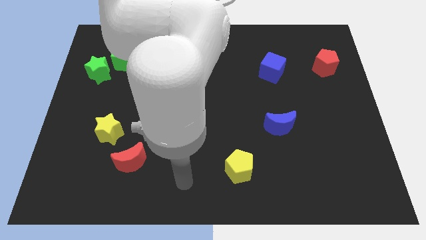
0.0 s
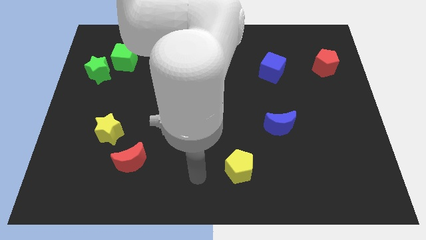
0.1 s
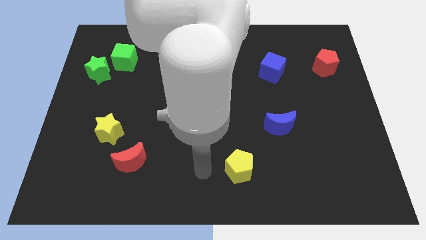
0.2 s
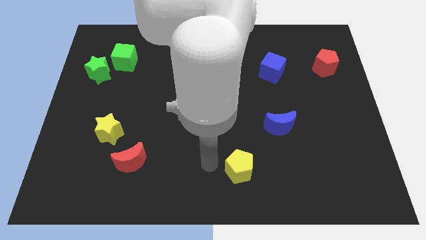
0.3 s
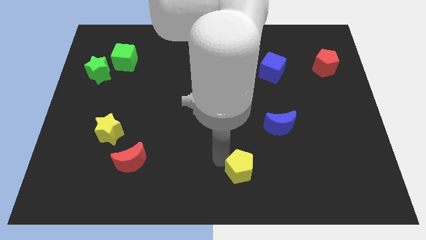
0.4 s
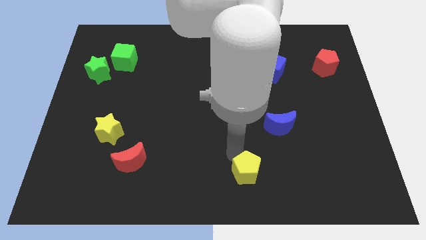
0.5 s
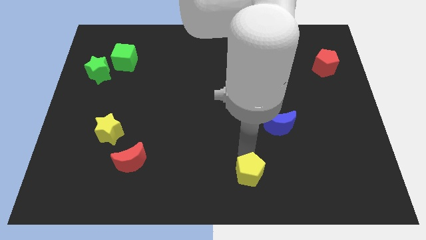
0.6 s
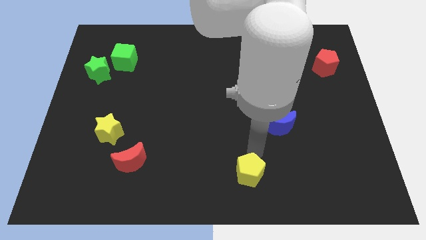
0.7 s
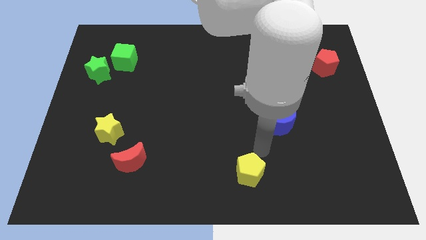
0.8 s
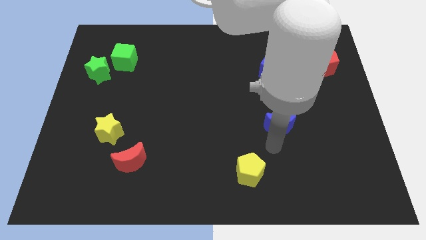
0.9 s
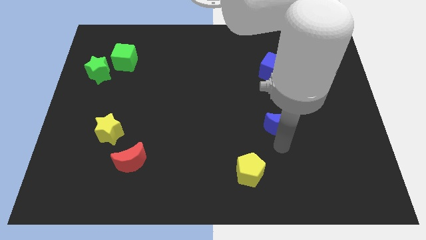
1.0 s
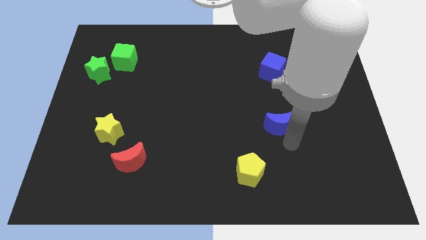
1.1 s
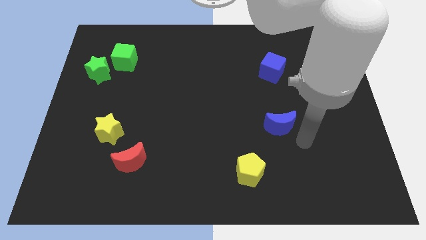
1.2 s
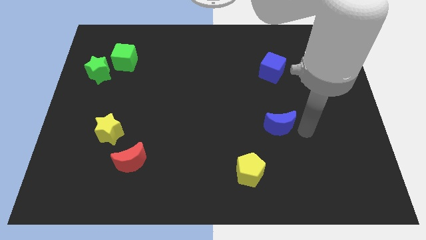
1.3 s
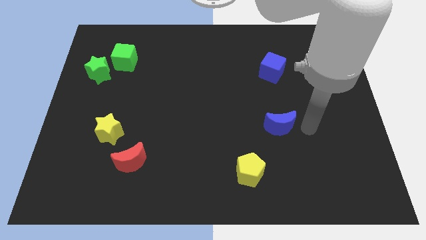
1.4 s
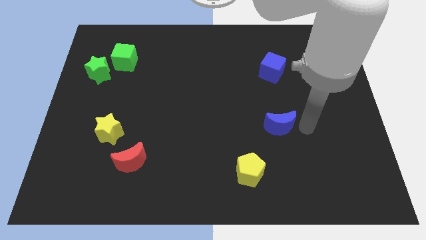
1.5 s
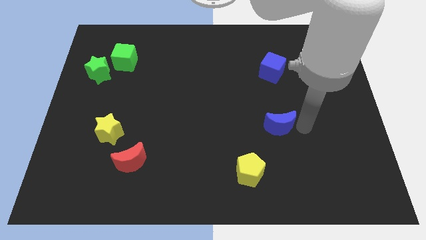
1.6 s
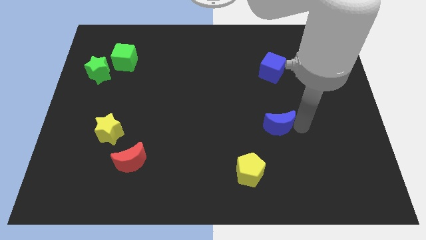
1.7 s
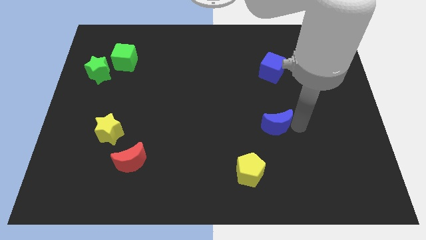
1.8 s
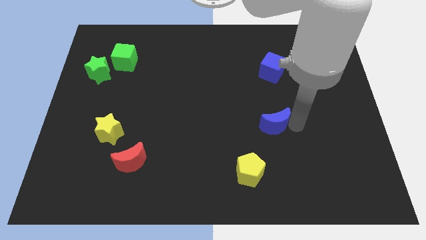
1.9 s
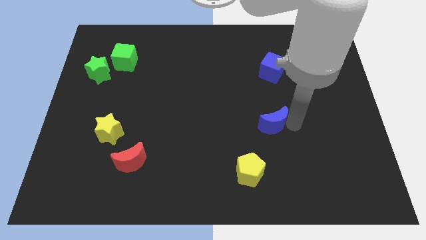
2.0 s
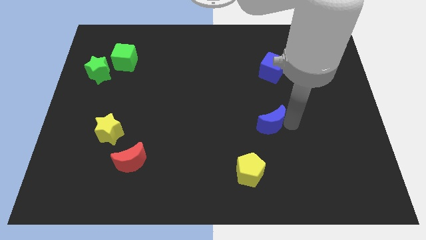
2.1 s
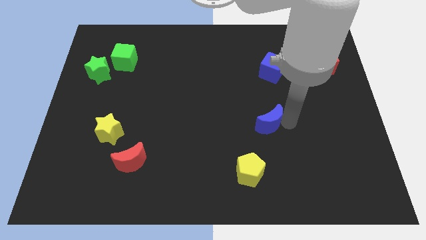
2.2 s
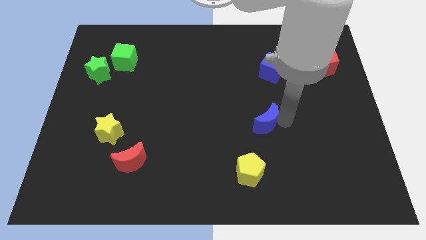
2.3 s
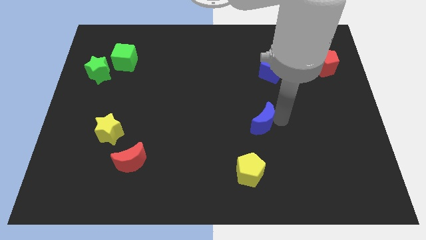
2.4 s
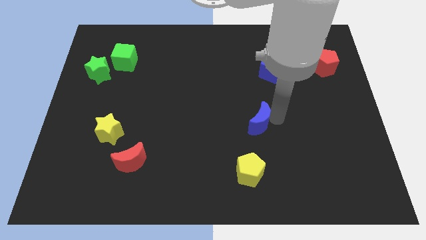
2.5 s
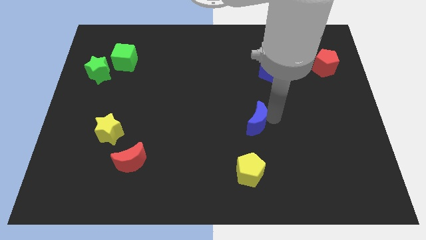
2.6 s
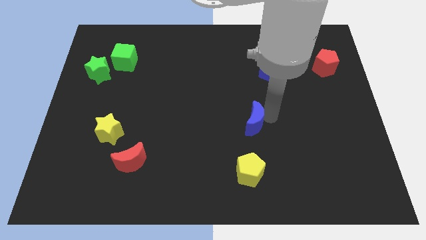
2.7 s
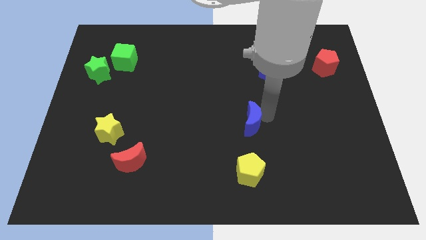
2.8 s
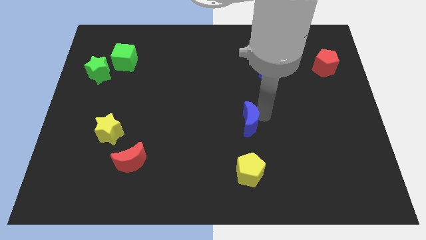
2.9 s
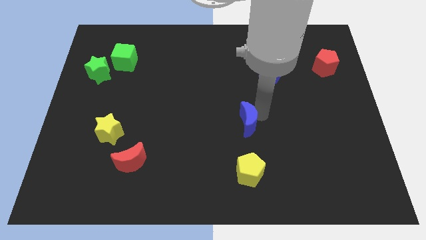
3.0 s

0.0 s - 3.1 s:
move the blue moon to the left slightly

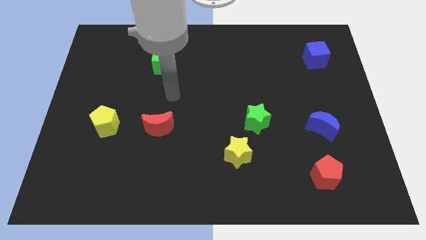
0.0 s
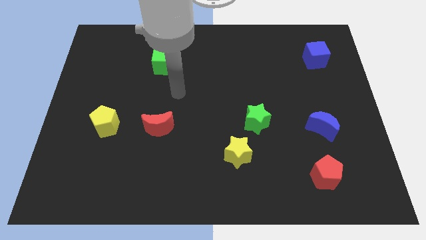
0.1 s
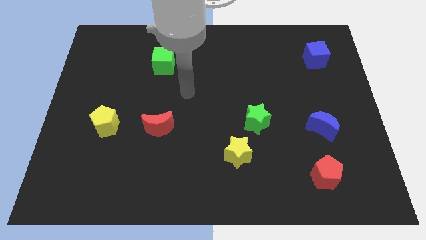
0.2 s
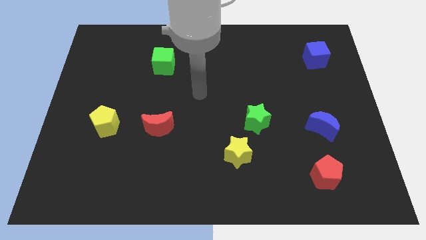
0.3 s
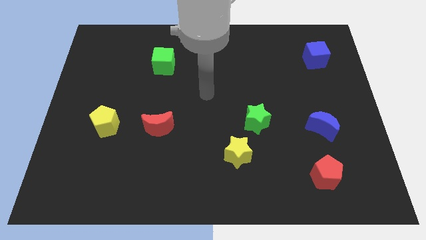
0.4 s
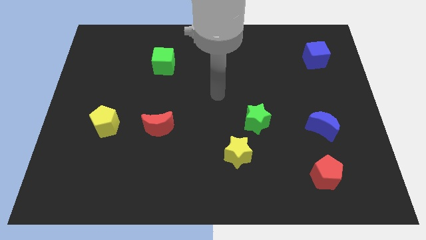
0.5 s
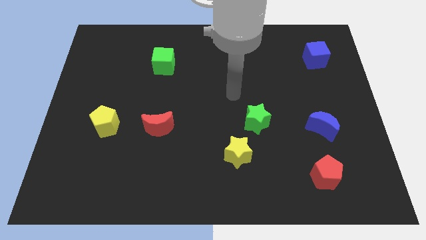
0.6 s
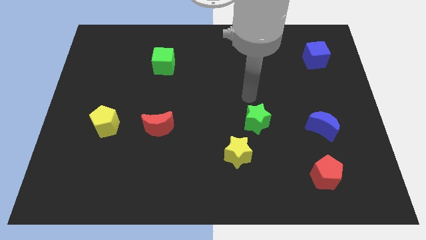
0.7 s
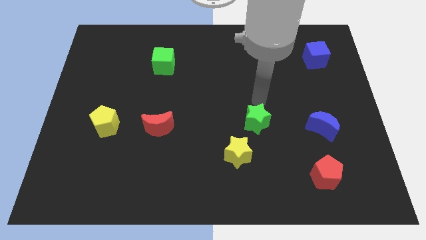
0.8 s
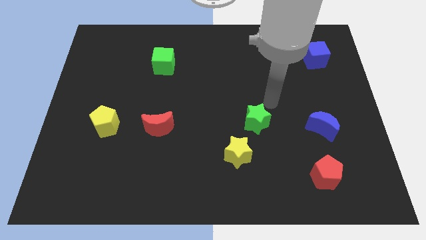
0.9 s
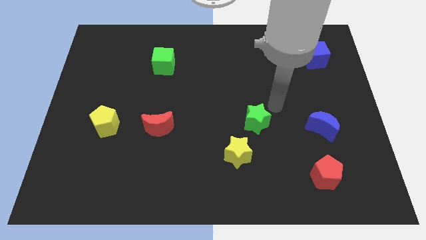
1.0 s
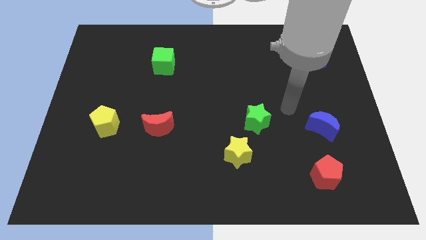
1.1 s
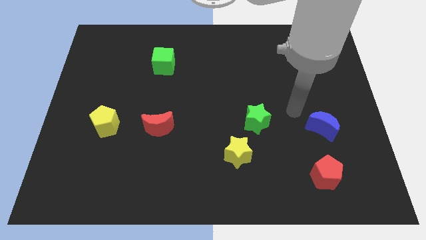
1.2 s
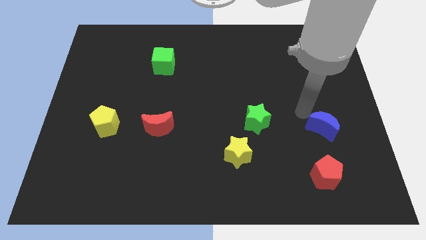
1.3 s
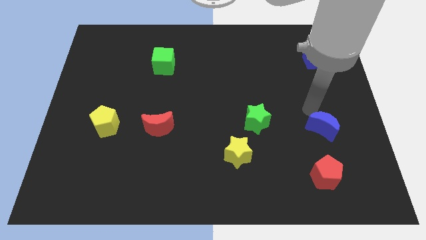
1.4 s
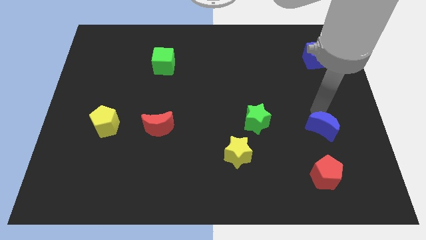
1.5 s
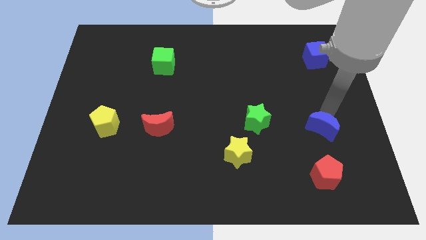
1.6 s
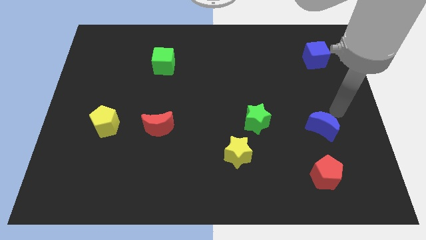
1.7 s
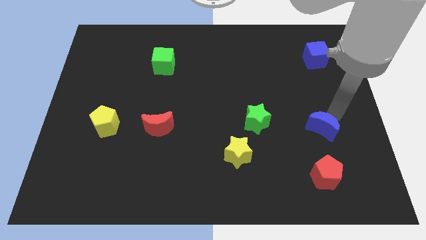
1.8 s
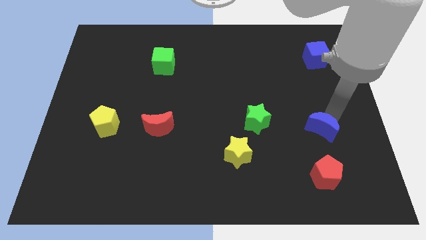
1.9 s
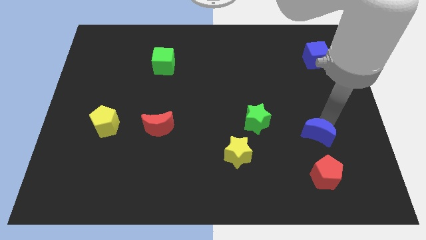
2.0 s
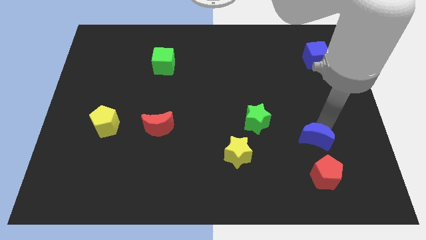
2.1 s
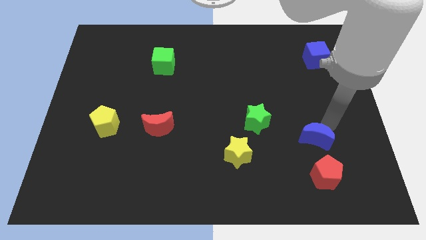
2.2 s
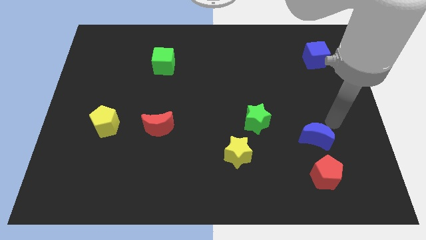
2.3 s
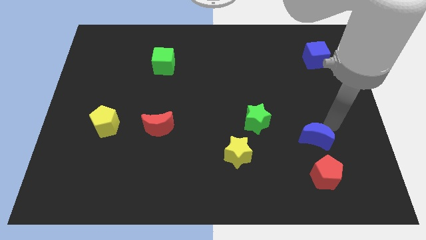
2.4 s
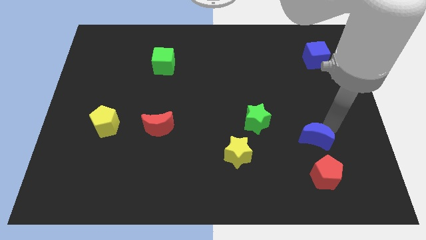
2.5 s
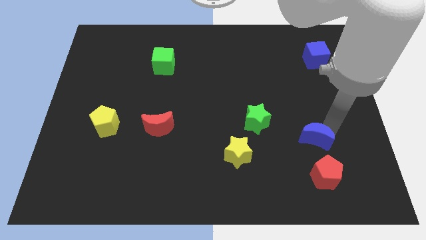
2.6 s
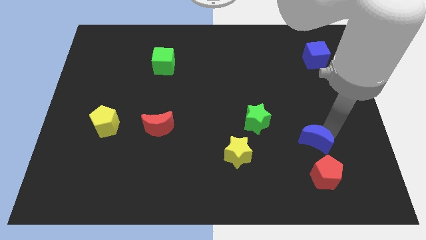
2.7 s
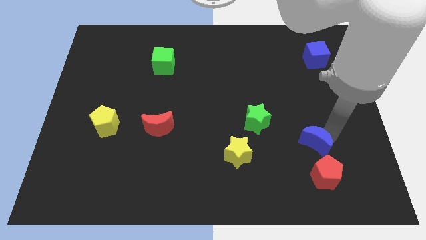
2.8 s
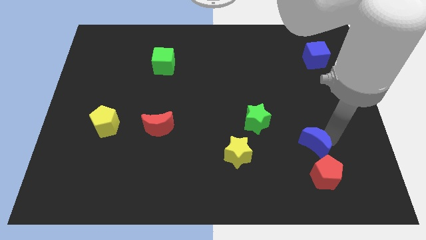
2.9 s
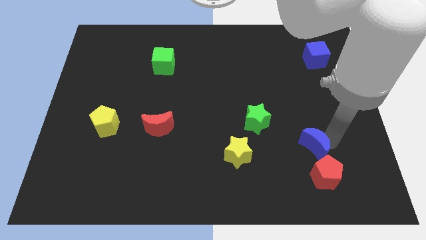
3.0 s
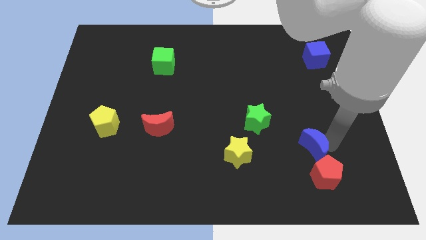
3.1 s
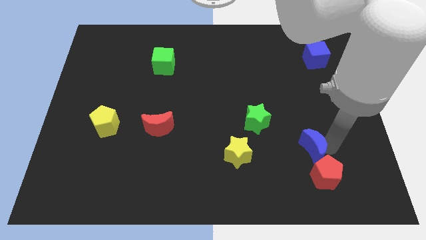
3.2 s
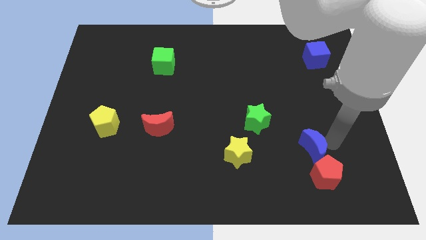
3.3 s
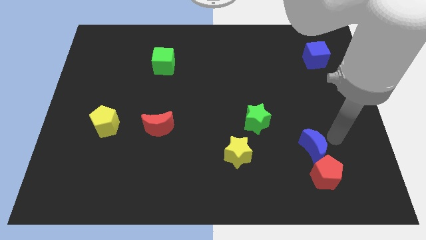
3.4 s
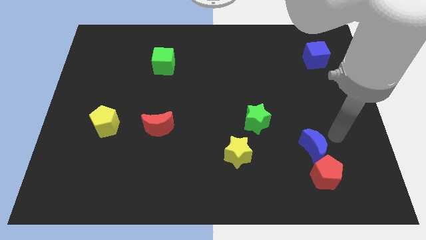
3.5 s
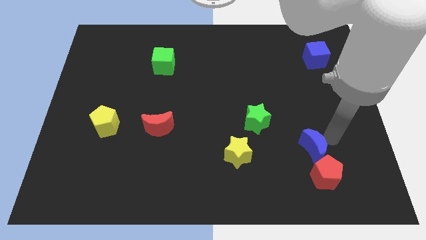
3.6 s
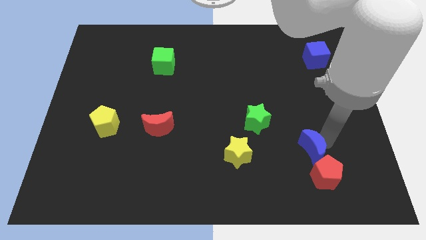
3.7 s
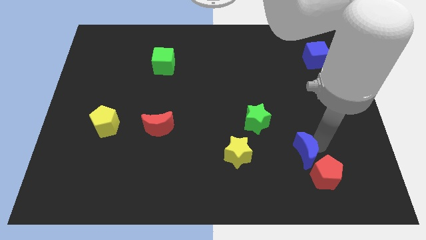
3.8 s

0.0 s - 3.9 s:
push the blue moon somewhat down and left diagonally

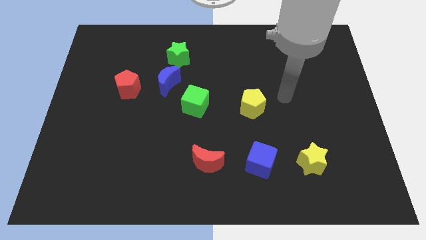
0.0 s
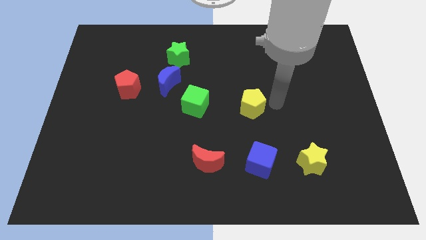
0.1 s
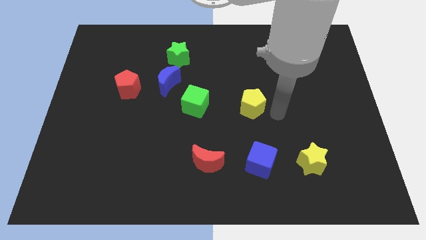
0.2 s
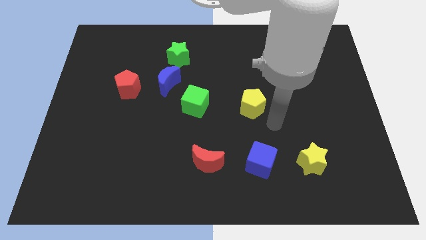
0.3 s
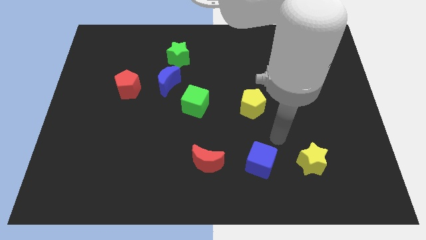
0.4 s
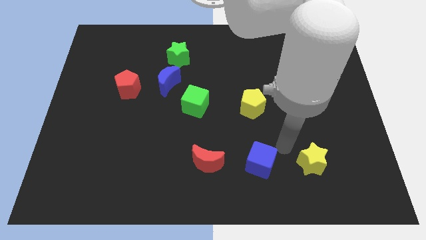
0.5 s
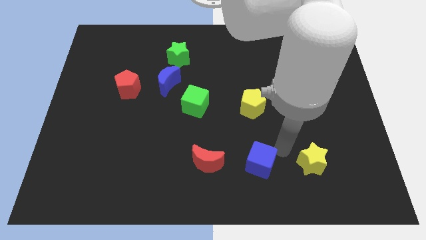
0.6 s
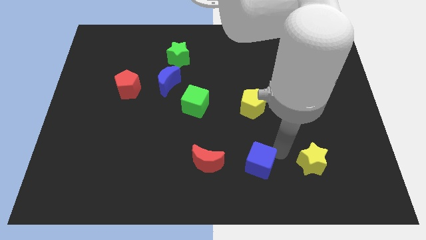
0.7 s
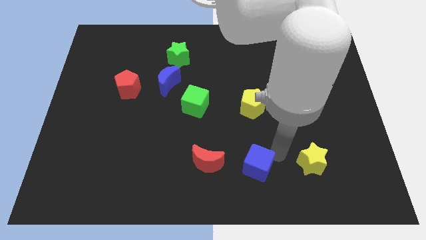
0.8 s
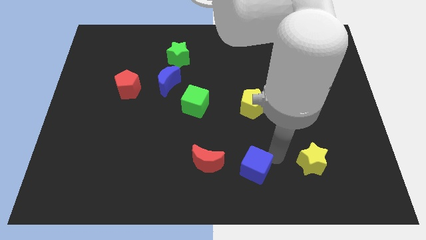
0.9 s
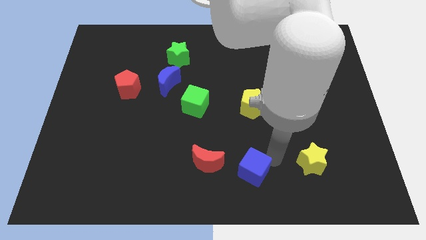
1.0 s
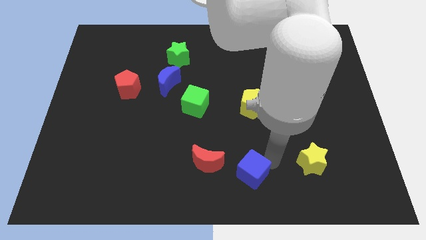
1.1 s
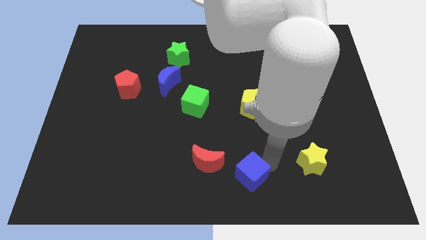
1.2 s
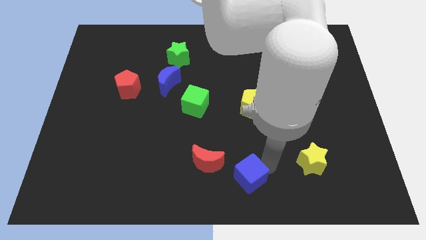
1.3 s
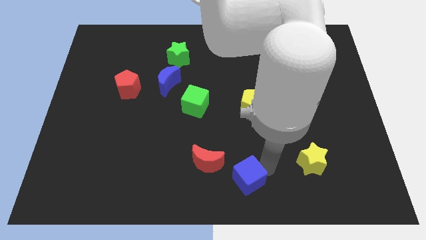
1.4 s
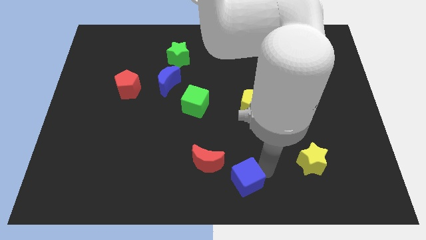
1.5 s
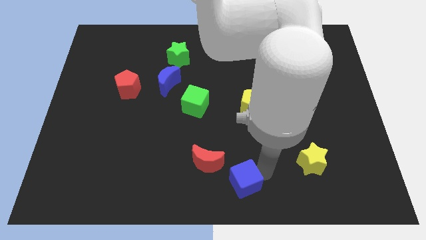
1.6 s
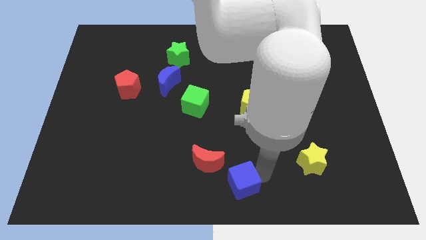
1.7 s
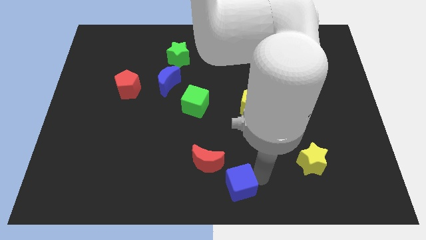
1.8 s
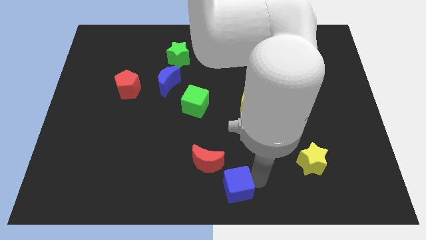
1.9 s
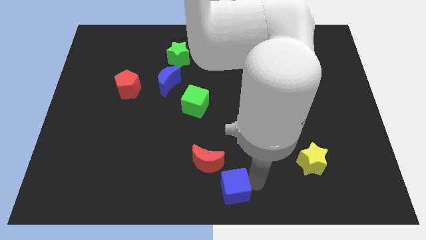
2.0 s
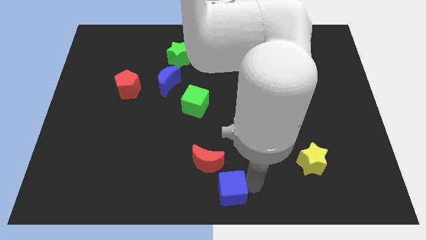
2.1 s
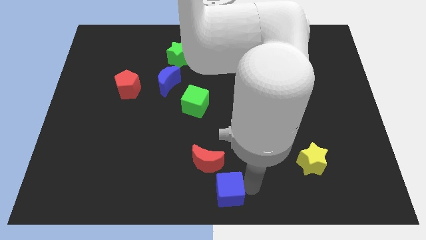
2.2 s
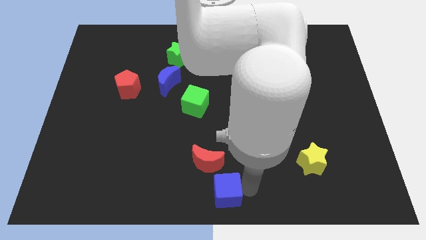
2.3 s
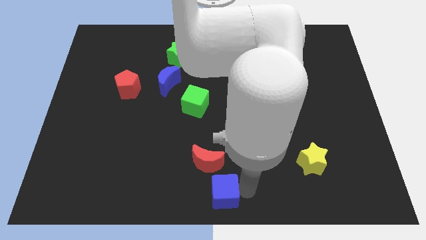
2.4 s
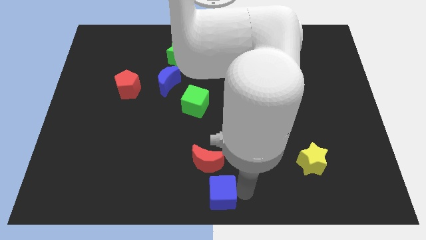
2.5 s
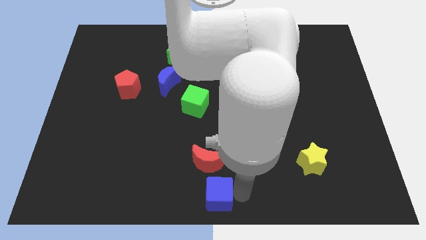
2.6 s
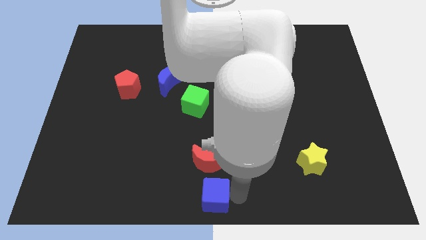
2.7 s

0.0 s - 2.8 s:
slide the blue cube a little bit left
